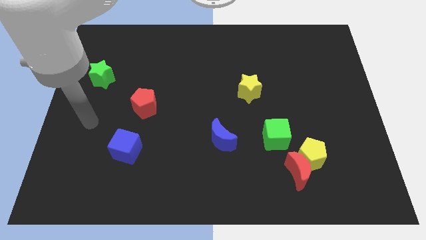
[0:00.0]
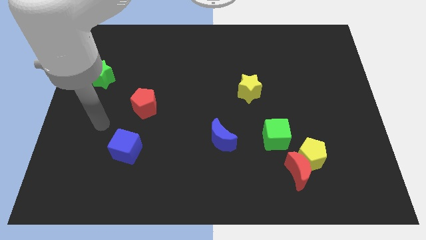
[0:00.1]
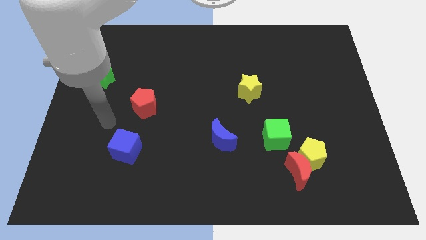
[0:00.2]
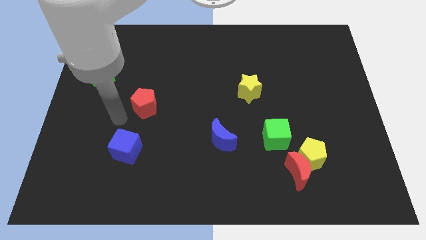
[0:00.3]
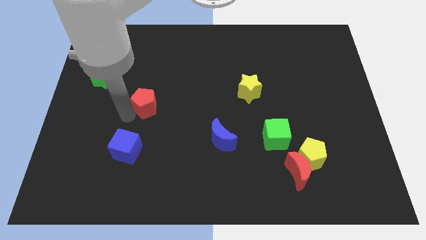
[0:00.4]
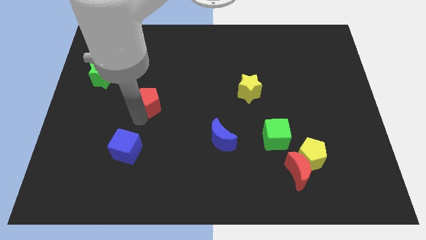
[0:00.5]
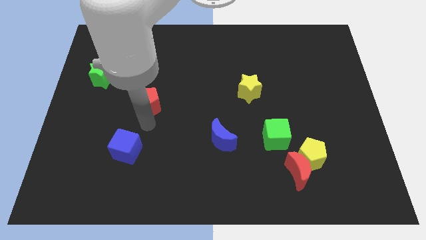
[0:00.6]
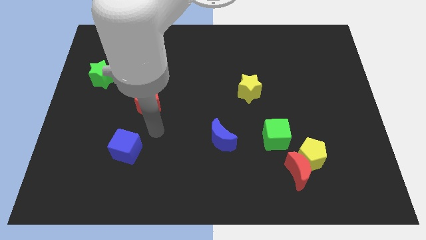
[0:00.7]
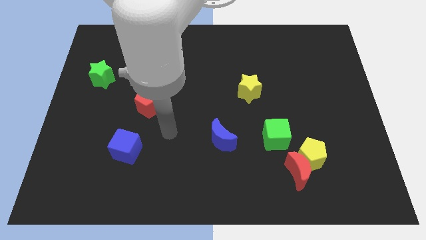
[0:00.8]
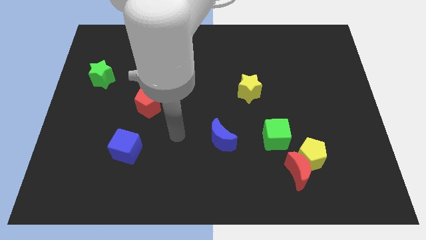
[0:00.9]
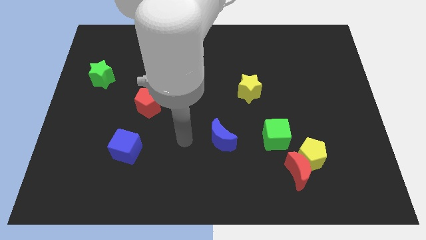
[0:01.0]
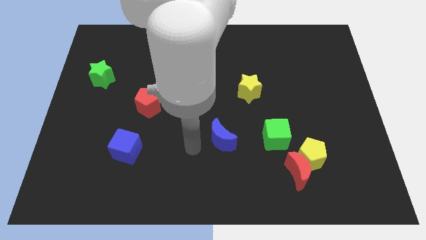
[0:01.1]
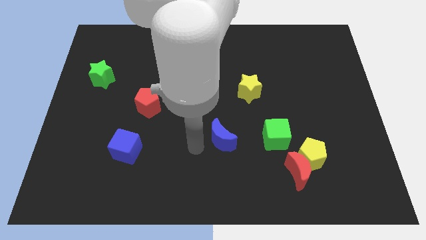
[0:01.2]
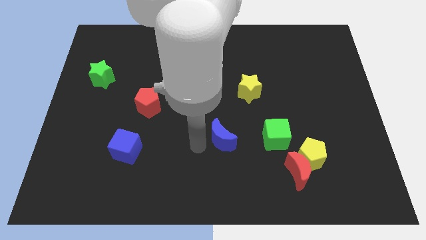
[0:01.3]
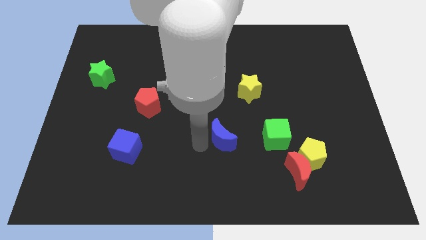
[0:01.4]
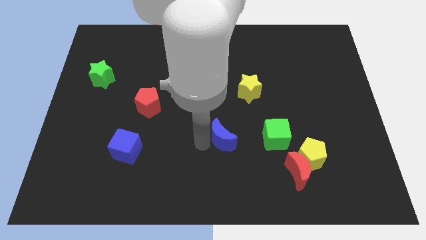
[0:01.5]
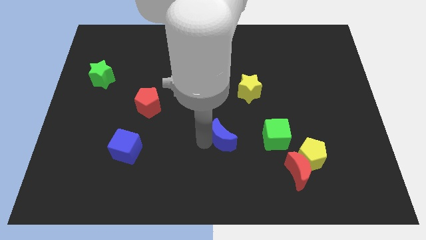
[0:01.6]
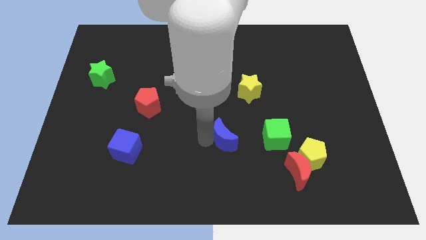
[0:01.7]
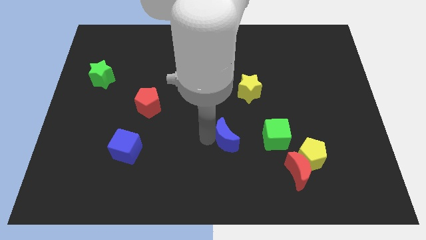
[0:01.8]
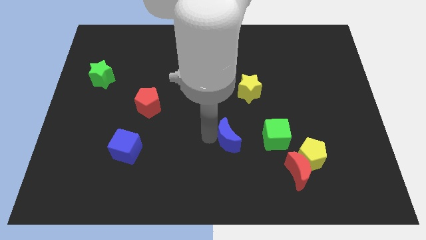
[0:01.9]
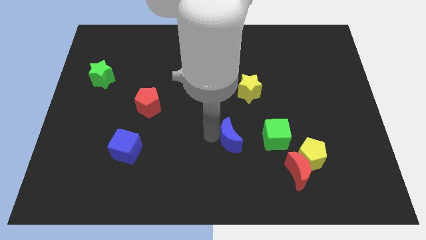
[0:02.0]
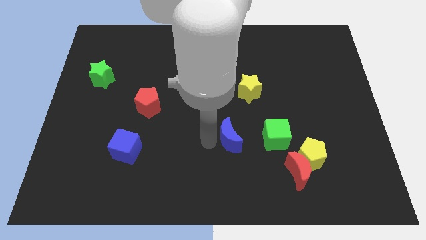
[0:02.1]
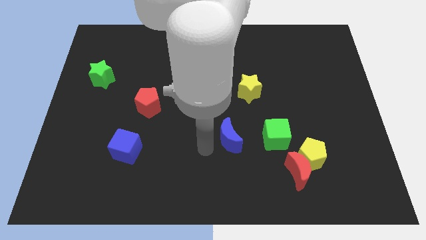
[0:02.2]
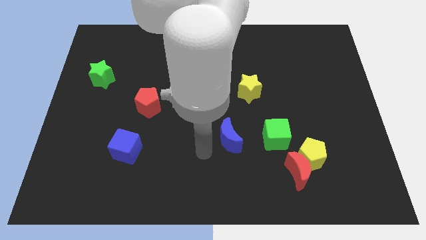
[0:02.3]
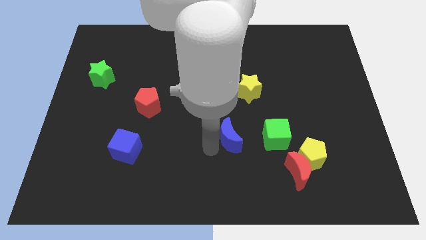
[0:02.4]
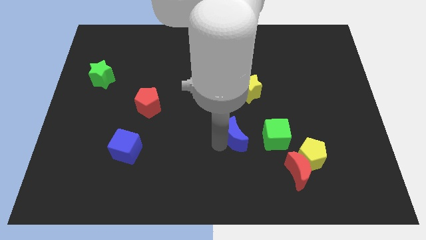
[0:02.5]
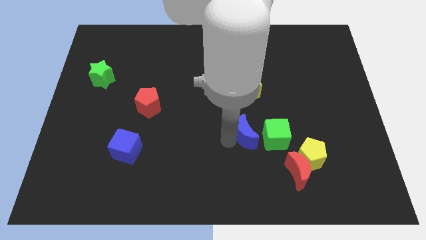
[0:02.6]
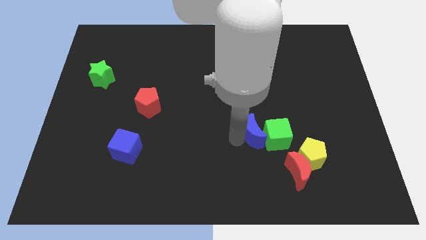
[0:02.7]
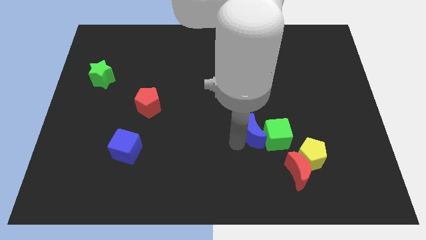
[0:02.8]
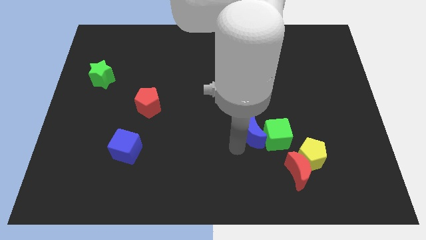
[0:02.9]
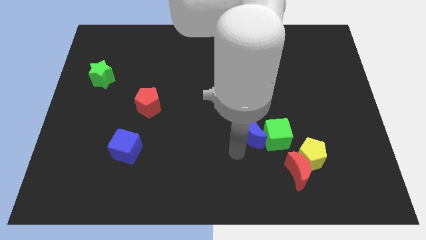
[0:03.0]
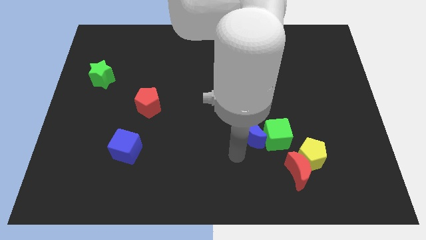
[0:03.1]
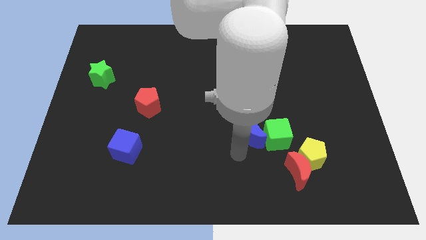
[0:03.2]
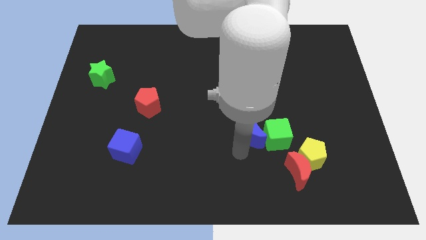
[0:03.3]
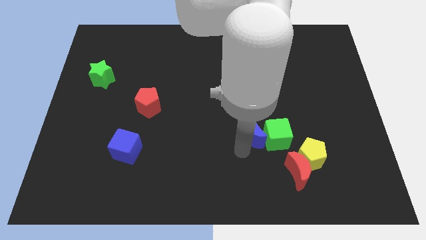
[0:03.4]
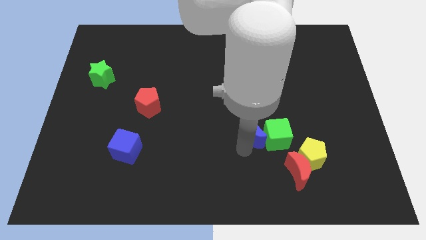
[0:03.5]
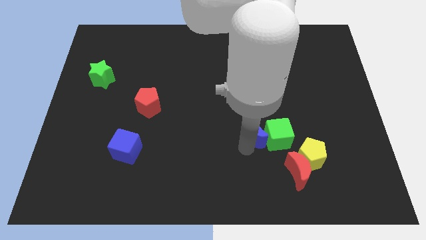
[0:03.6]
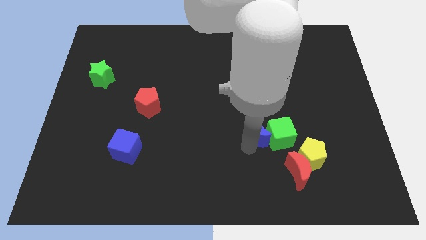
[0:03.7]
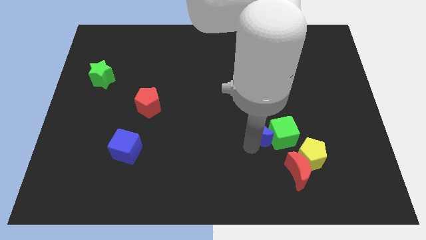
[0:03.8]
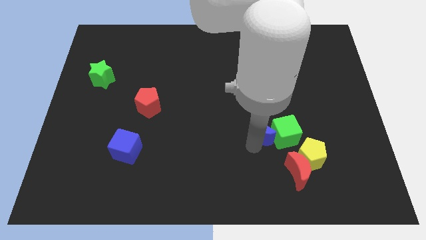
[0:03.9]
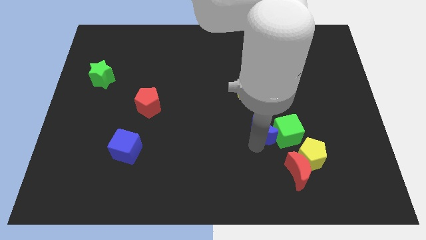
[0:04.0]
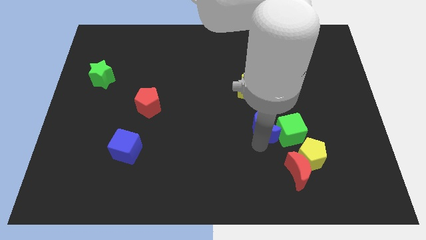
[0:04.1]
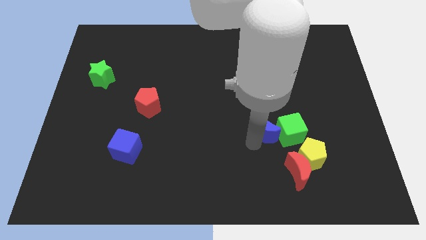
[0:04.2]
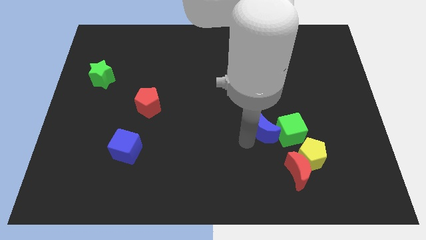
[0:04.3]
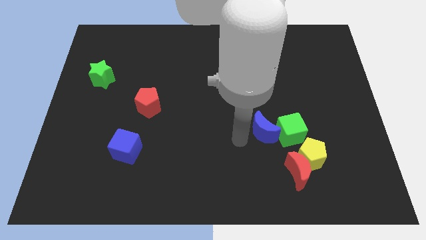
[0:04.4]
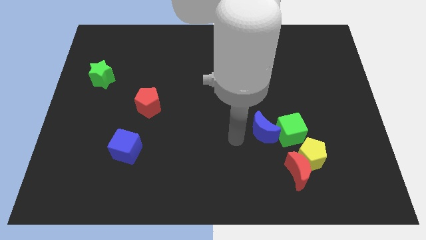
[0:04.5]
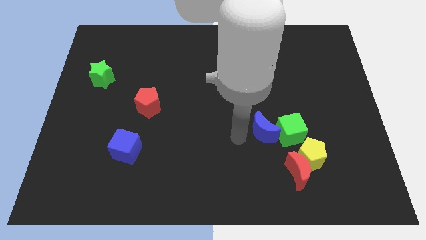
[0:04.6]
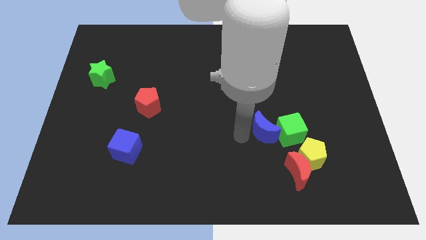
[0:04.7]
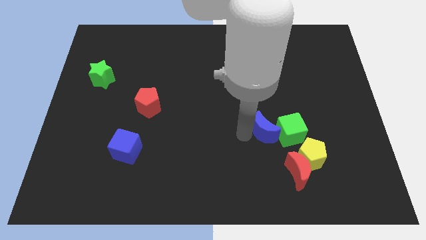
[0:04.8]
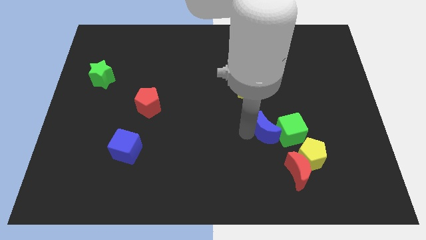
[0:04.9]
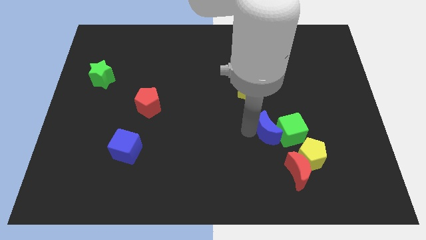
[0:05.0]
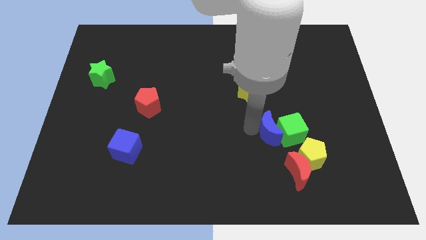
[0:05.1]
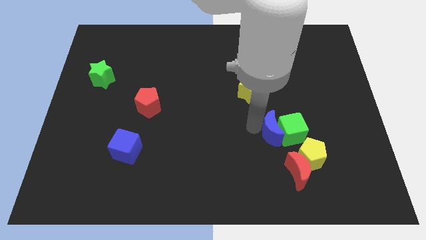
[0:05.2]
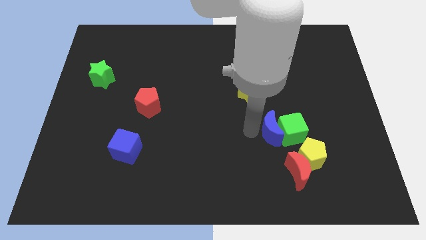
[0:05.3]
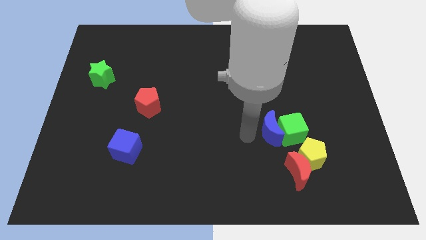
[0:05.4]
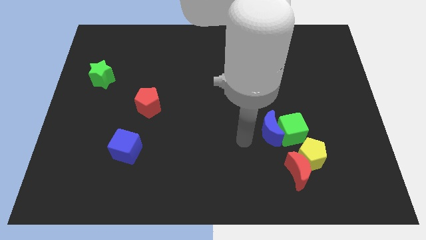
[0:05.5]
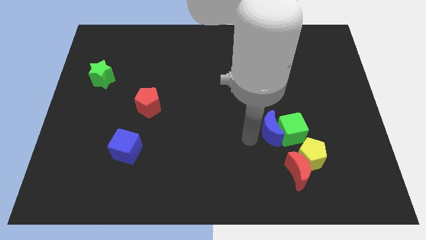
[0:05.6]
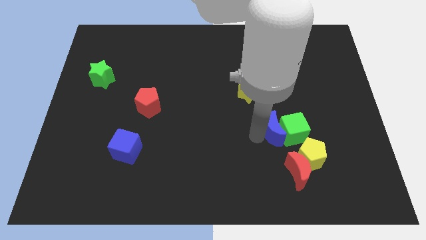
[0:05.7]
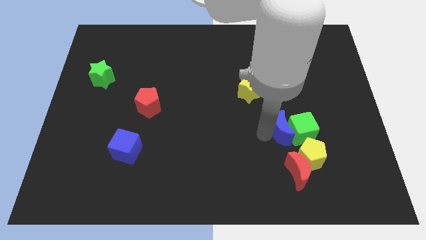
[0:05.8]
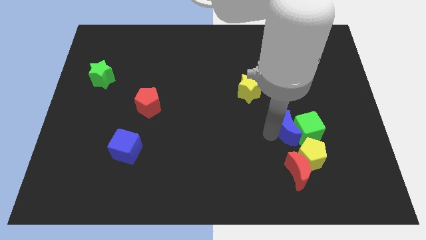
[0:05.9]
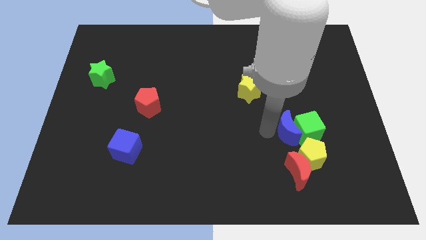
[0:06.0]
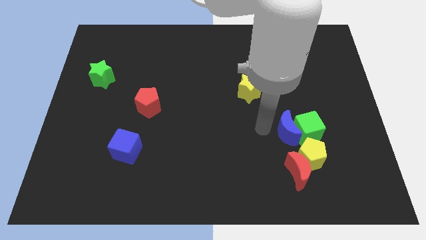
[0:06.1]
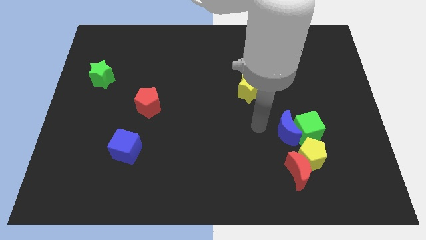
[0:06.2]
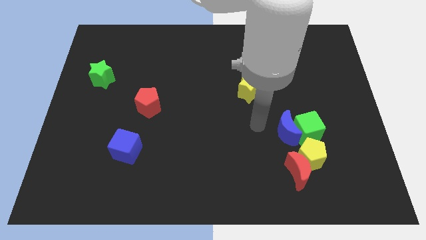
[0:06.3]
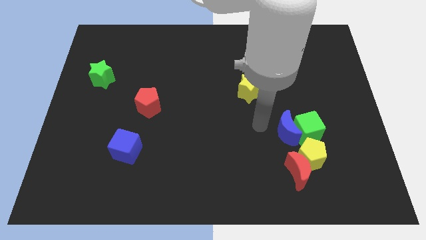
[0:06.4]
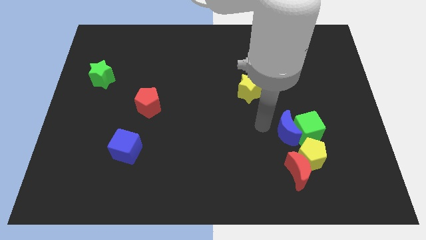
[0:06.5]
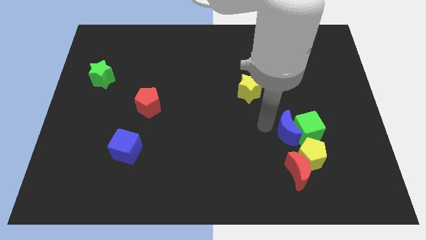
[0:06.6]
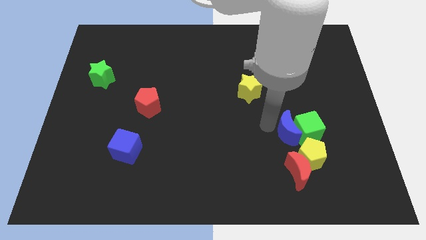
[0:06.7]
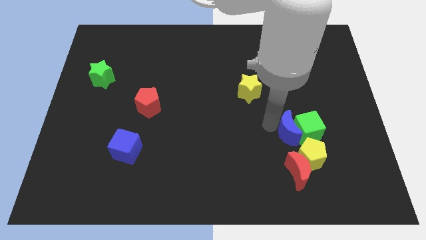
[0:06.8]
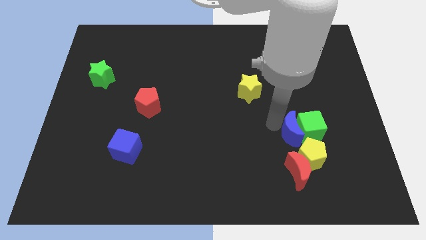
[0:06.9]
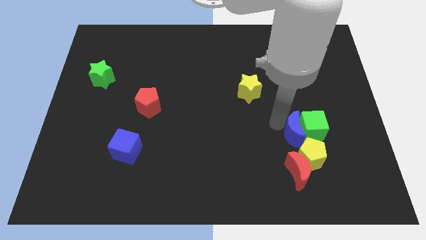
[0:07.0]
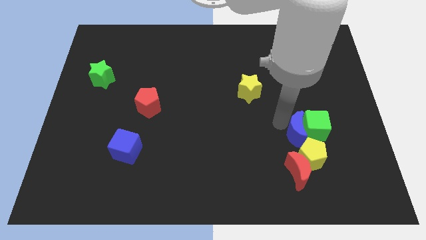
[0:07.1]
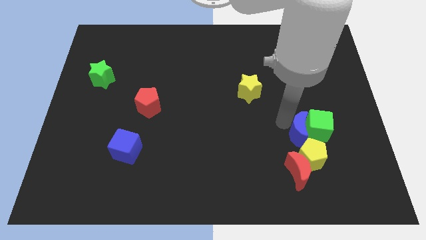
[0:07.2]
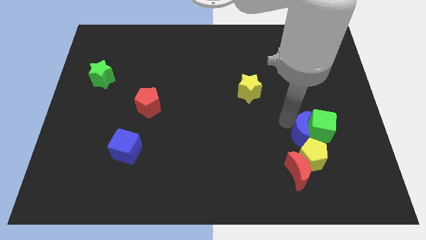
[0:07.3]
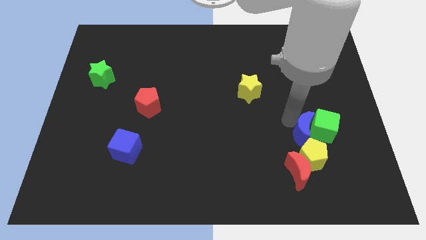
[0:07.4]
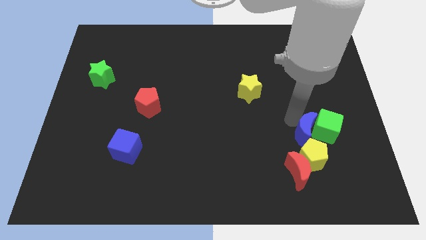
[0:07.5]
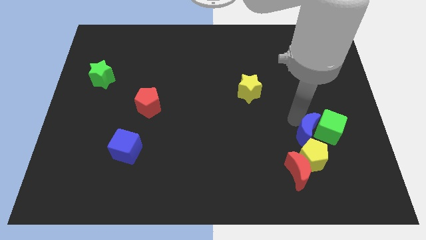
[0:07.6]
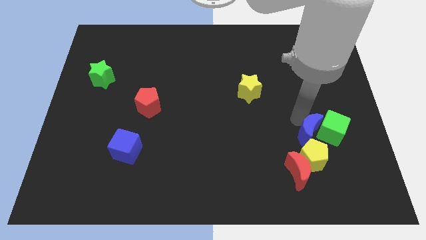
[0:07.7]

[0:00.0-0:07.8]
slide the blue moon to the top right side of the red moon
